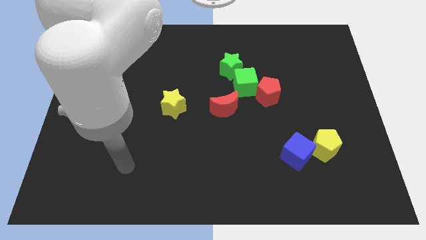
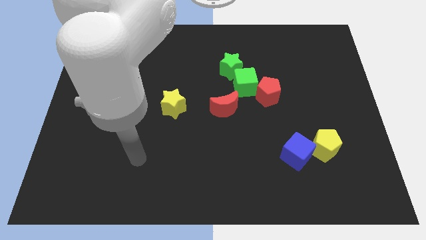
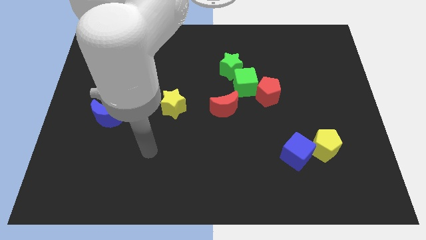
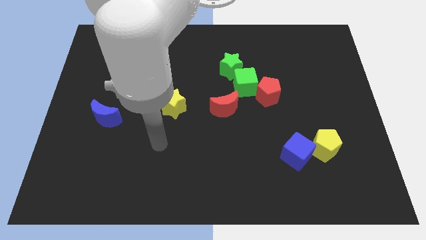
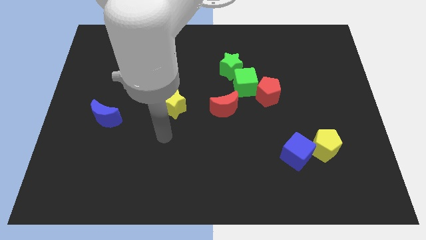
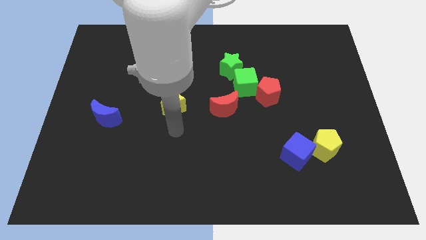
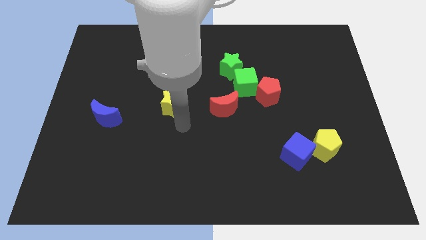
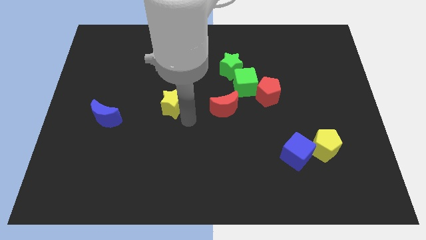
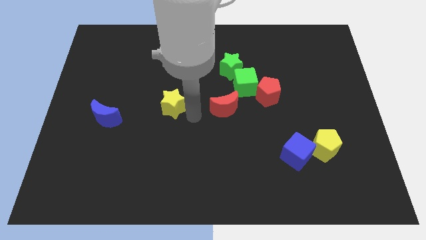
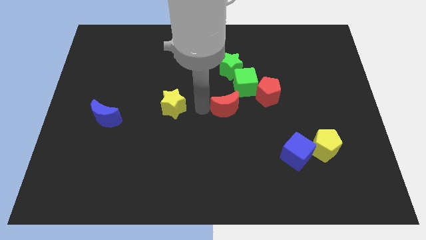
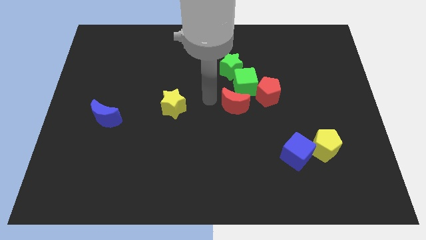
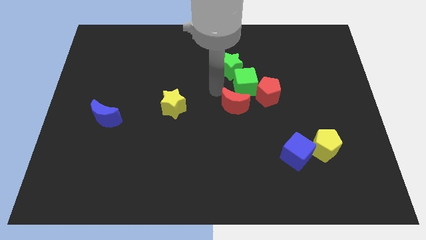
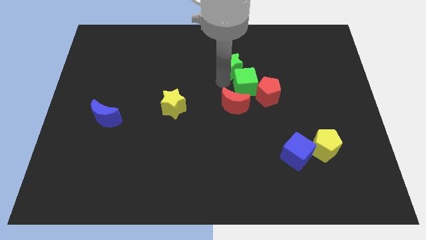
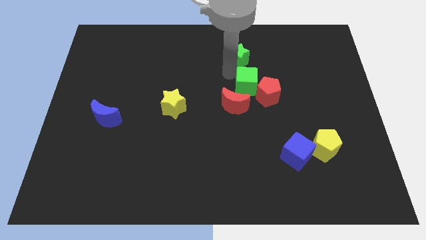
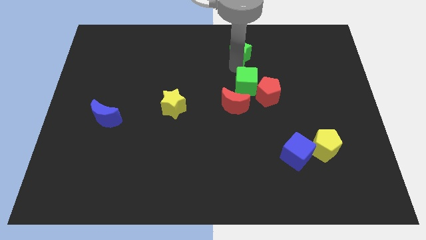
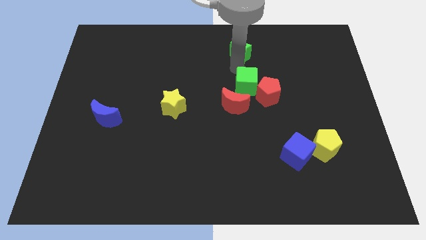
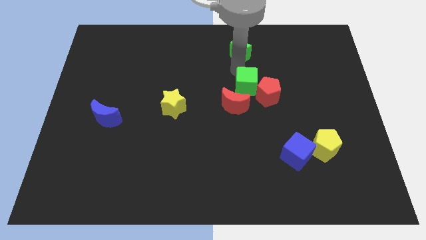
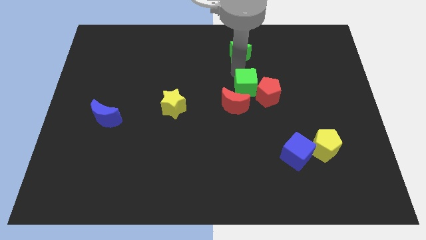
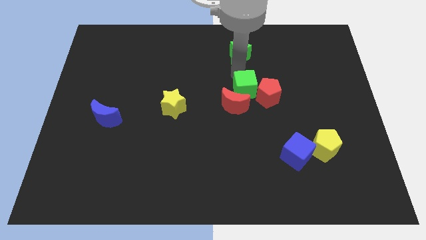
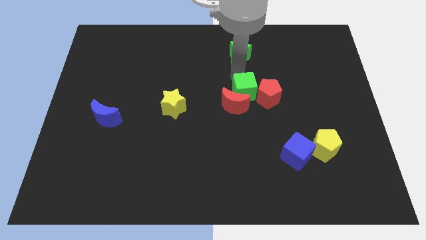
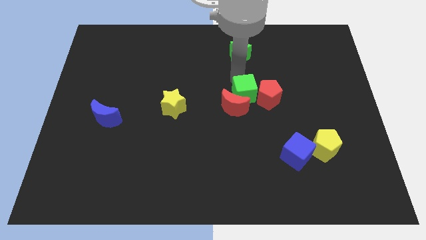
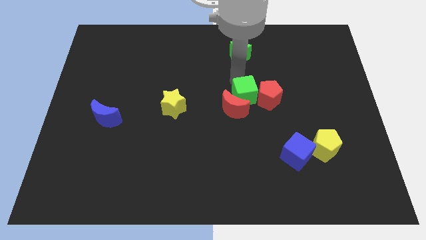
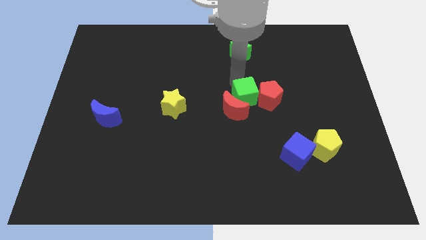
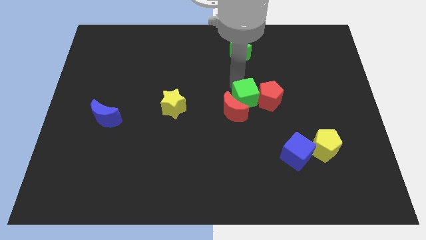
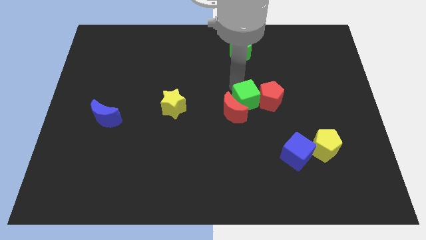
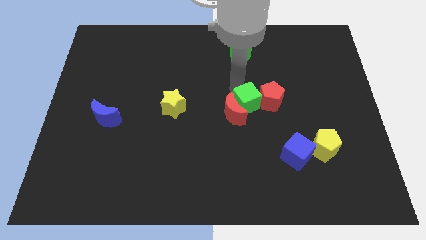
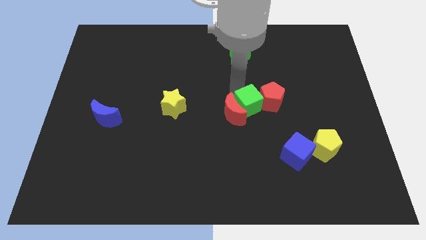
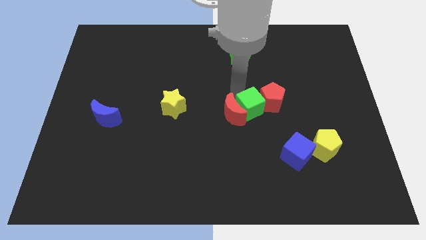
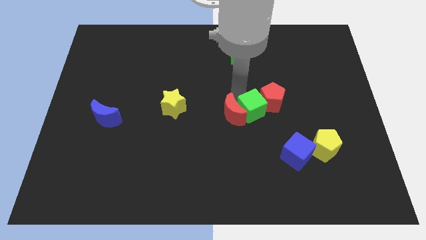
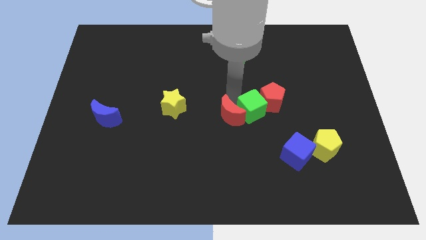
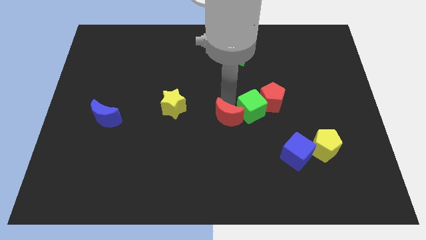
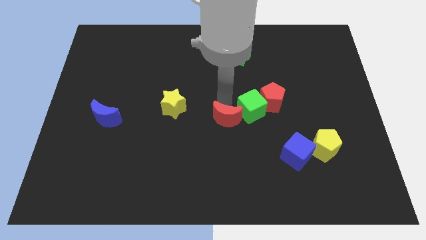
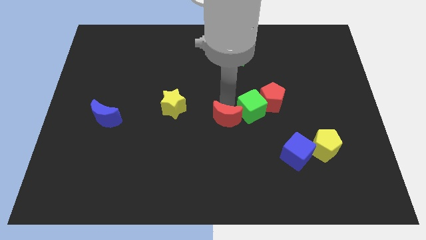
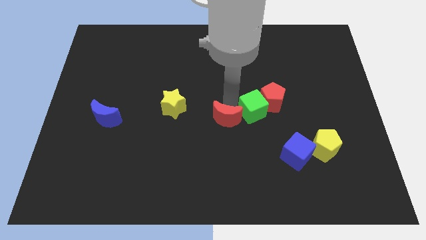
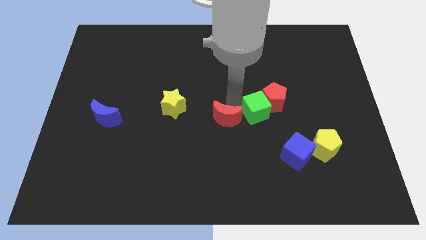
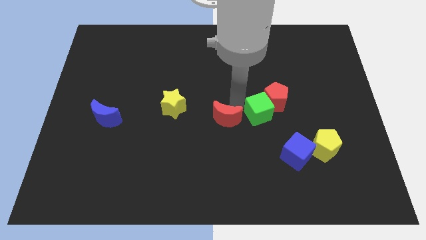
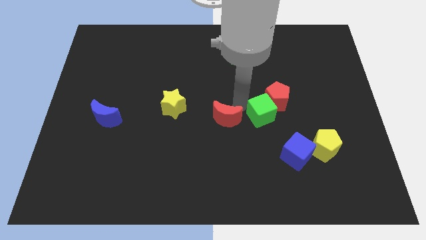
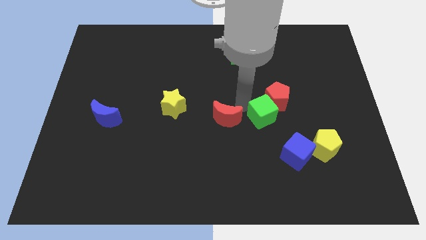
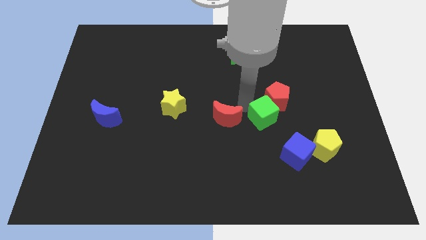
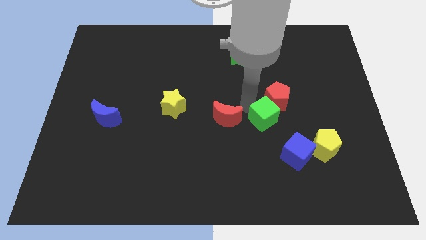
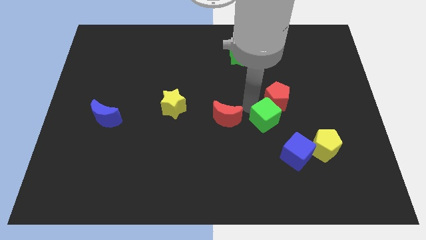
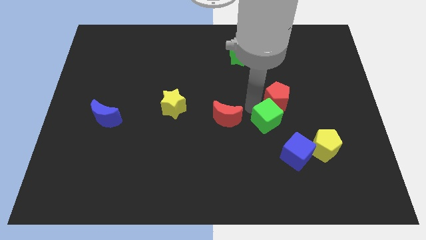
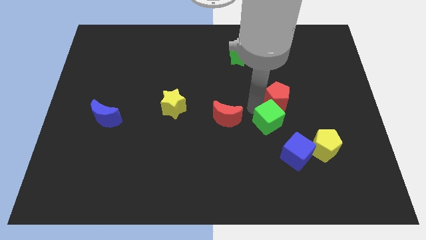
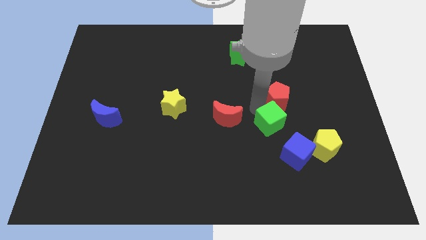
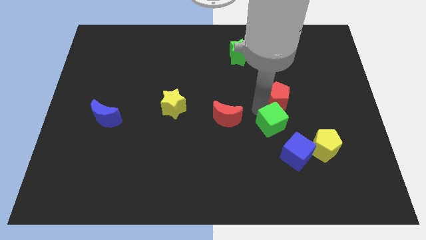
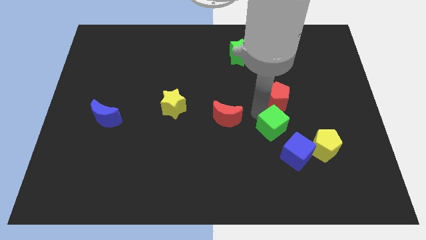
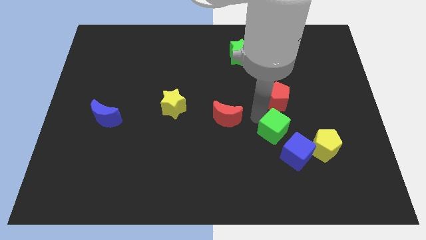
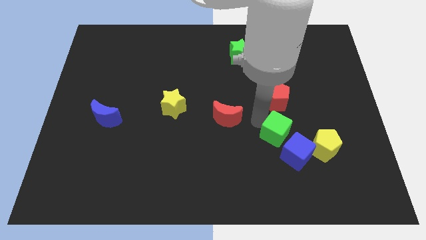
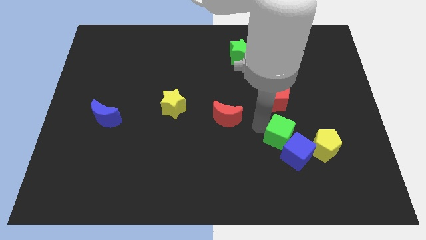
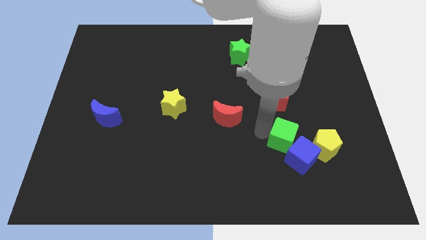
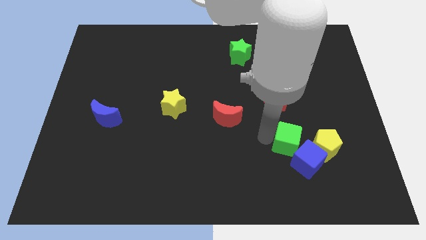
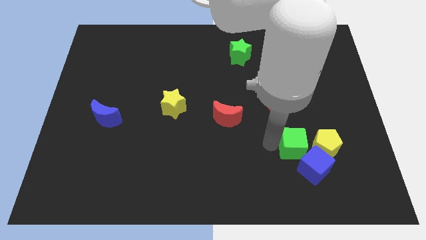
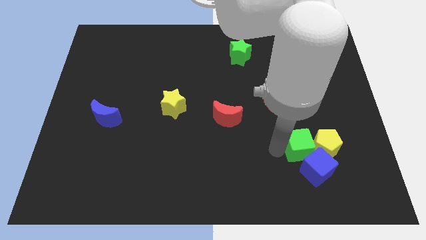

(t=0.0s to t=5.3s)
push the green cube towards the yellow pentagon

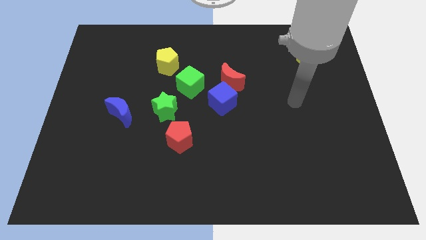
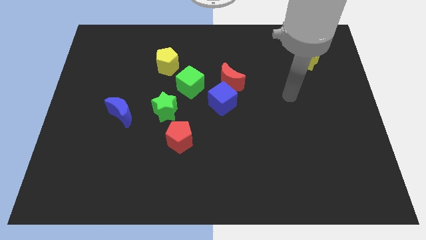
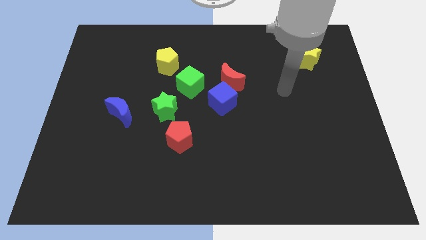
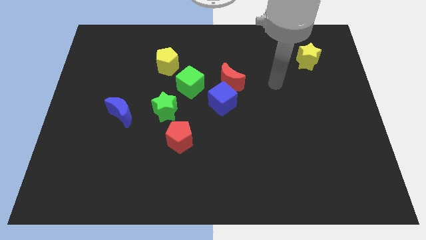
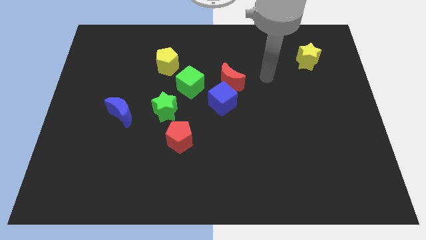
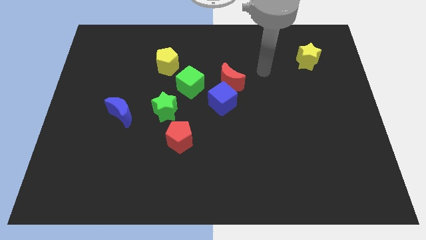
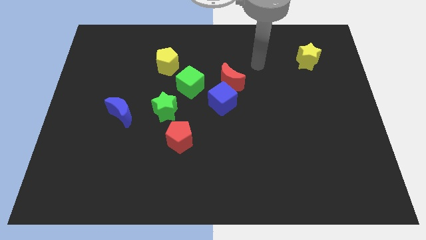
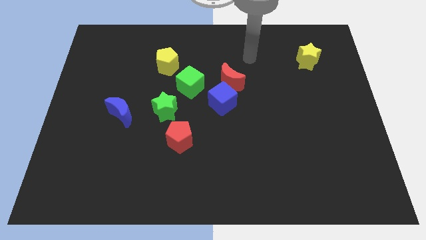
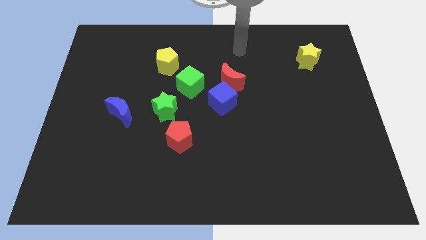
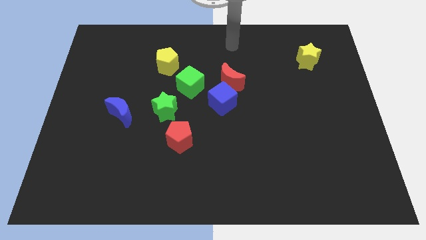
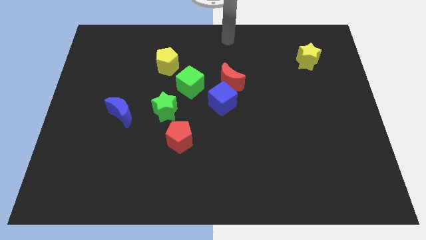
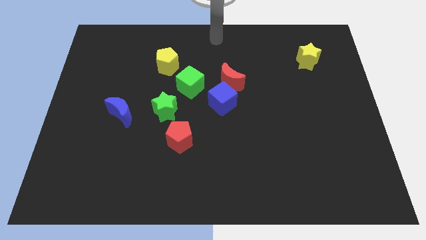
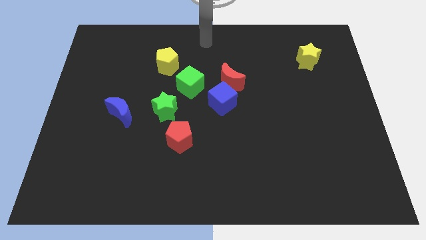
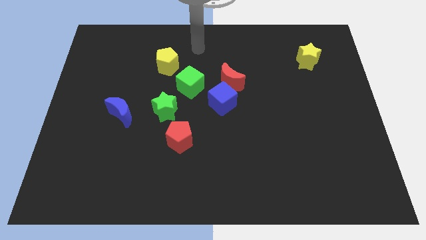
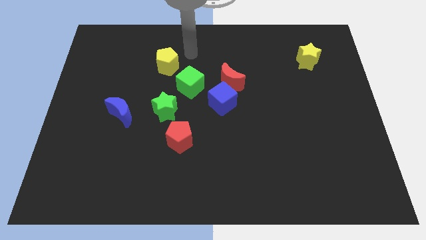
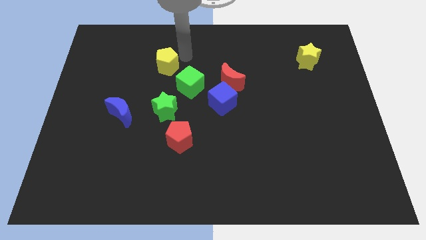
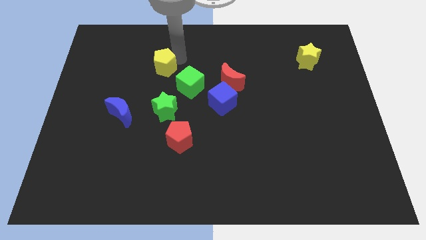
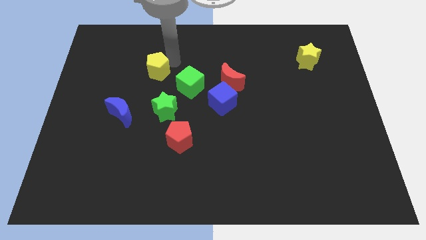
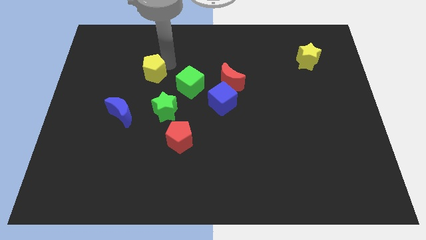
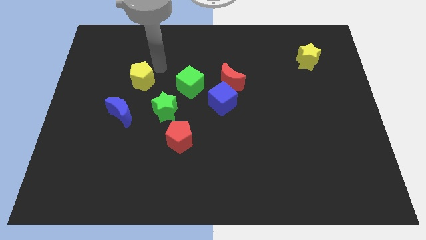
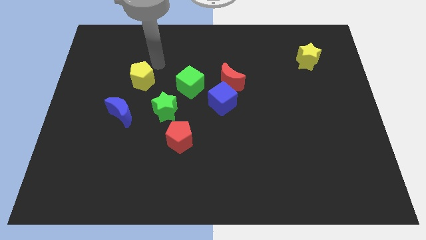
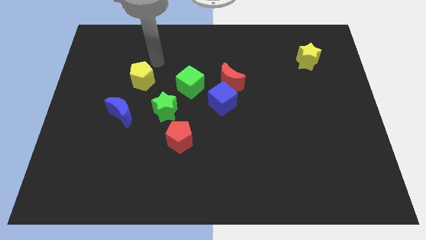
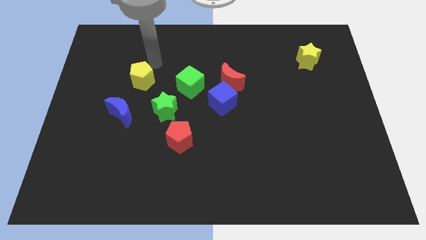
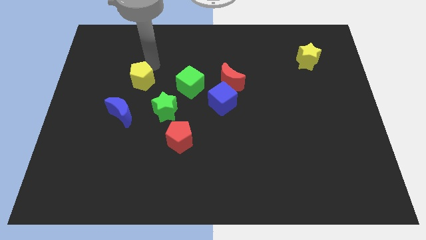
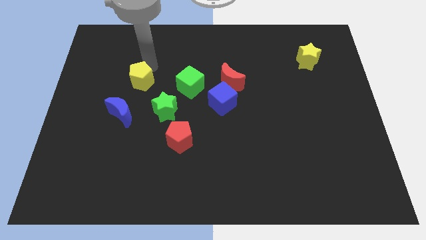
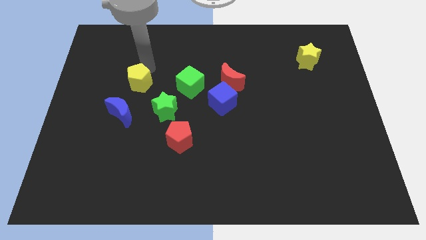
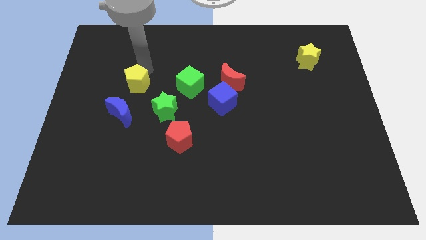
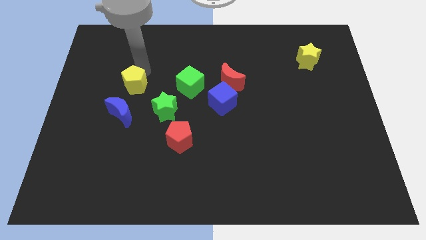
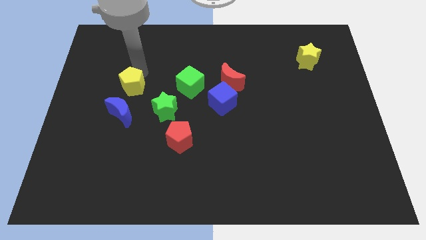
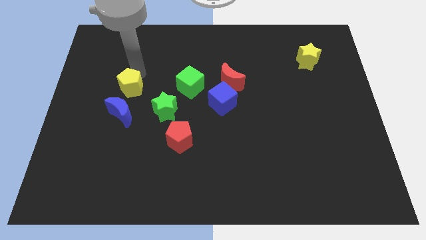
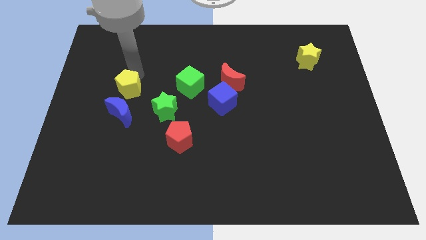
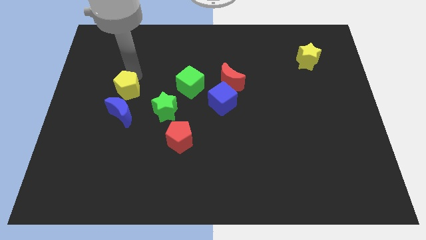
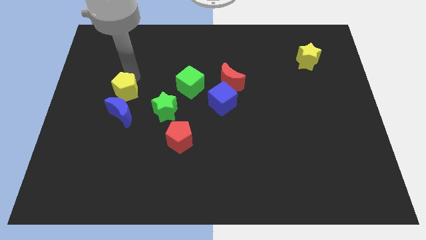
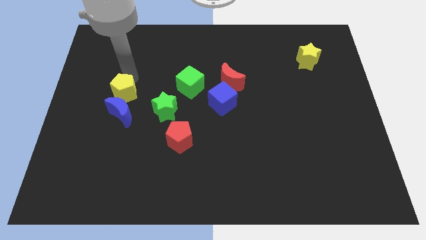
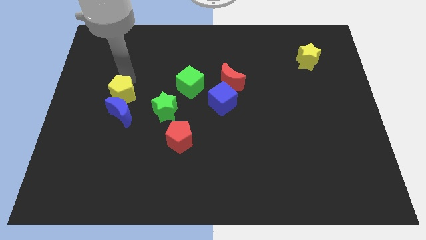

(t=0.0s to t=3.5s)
slide the yellow pentagon to the blue moon
